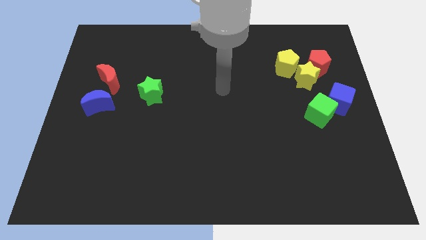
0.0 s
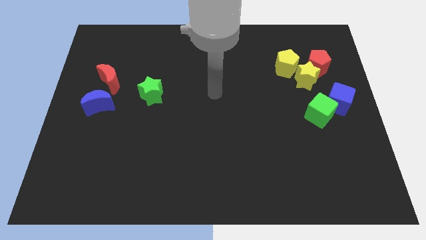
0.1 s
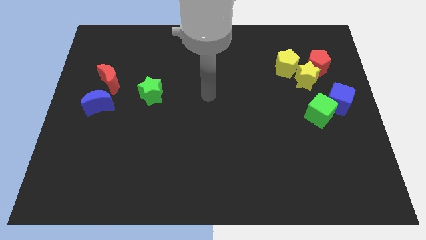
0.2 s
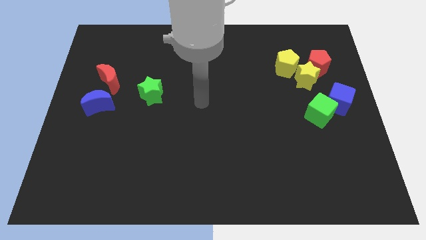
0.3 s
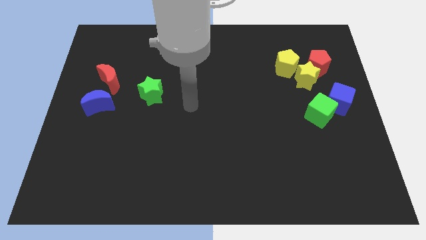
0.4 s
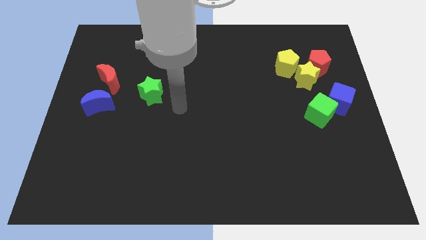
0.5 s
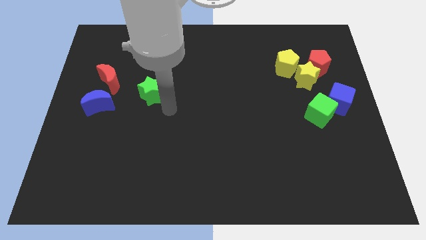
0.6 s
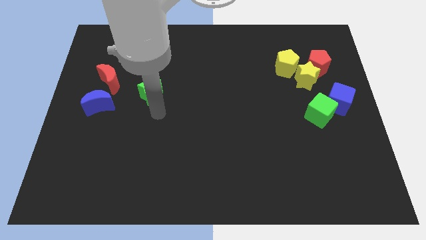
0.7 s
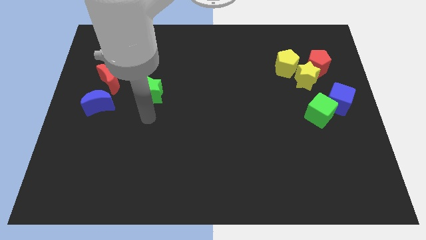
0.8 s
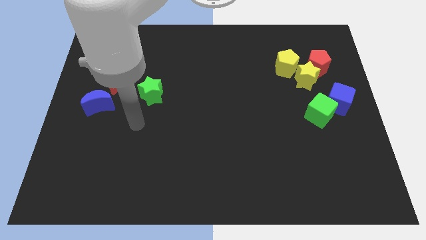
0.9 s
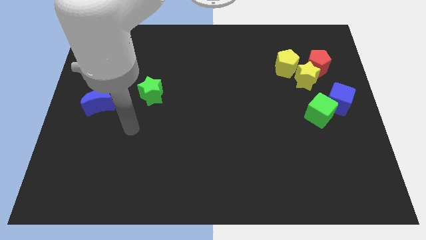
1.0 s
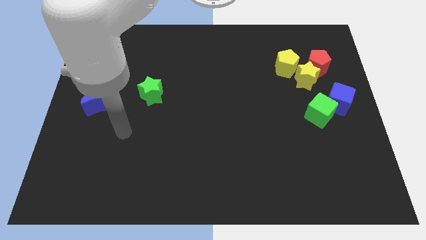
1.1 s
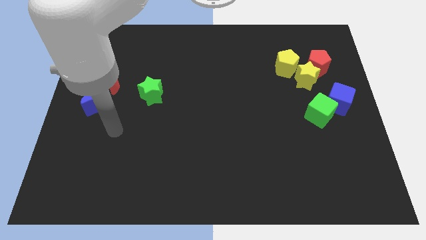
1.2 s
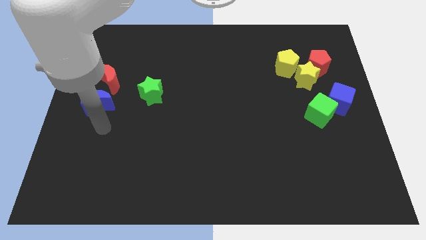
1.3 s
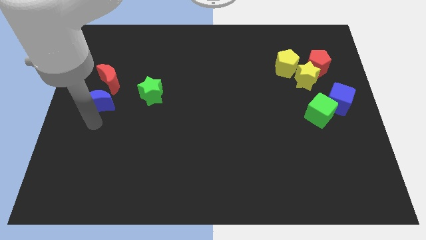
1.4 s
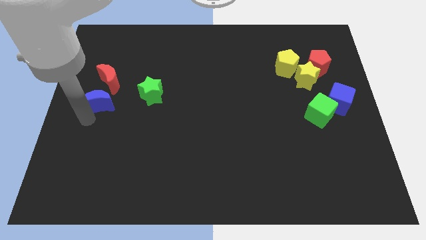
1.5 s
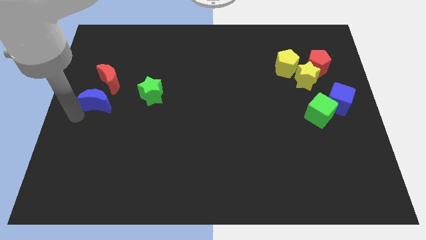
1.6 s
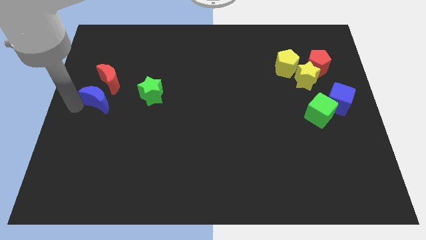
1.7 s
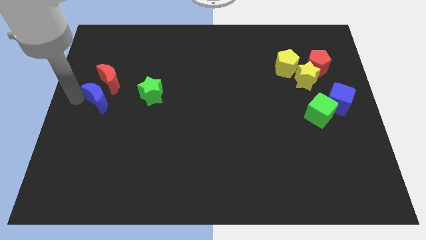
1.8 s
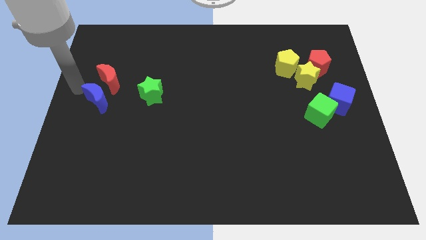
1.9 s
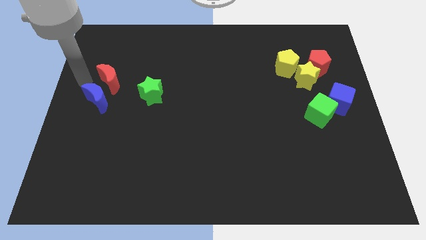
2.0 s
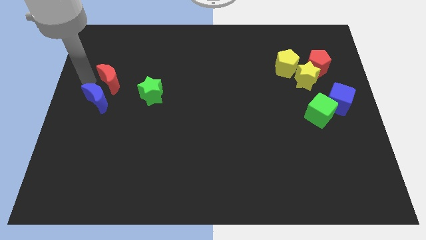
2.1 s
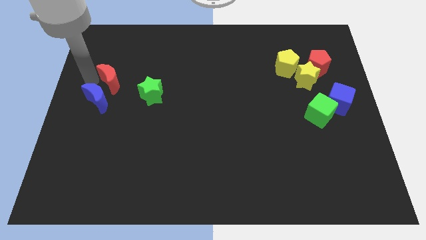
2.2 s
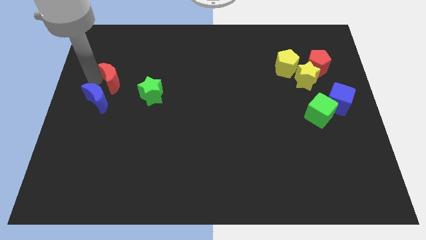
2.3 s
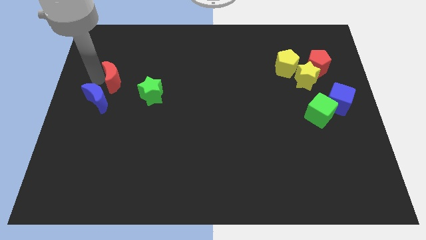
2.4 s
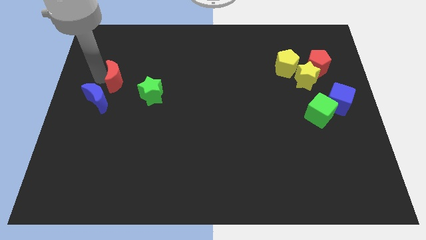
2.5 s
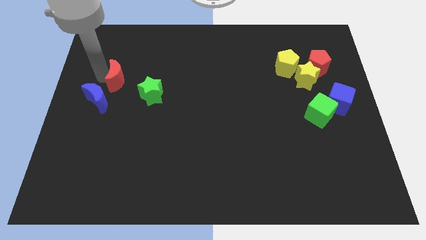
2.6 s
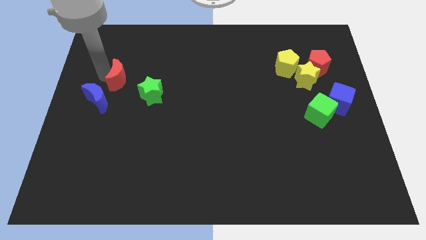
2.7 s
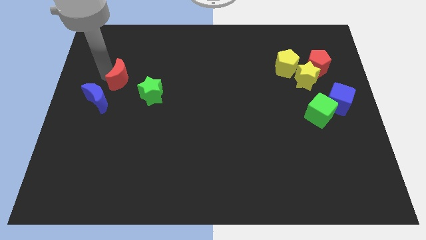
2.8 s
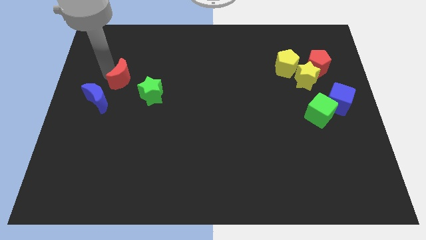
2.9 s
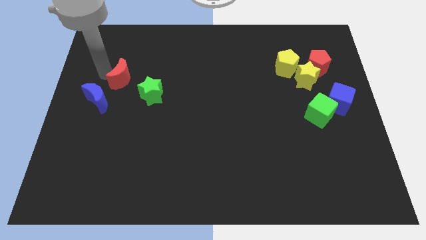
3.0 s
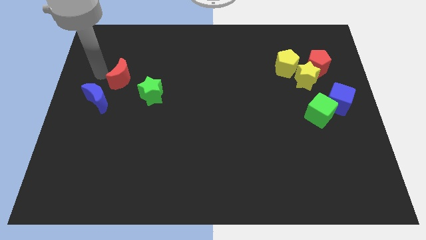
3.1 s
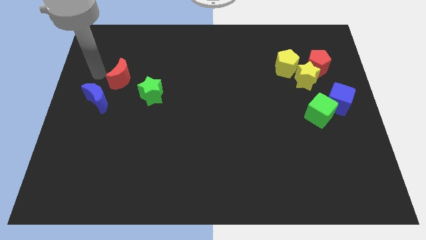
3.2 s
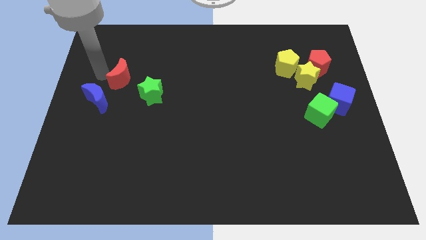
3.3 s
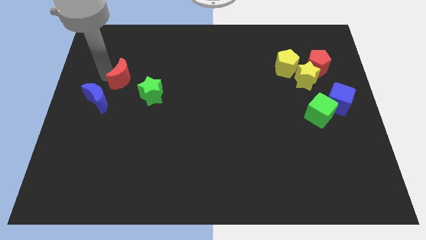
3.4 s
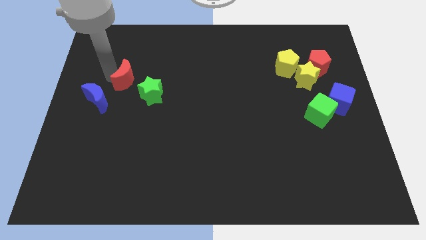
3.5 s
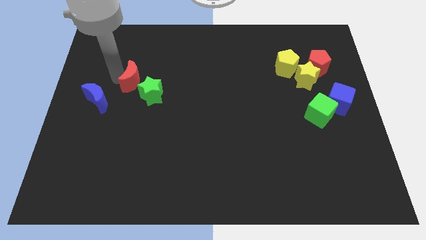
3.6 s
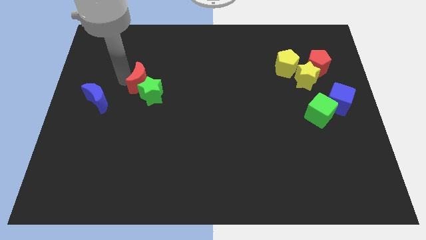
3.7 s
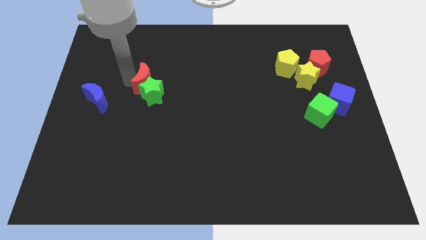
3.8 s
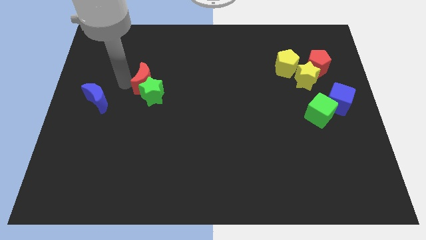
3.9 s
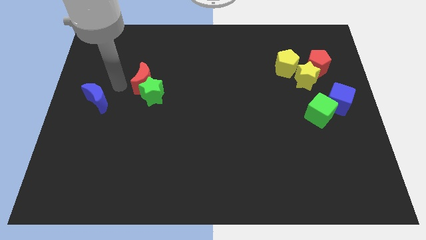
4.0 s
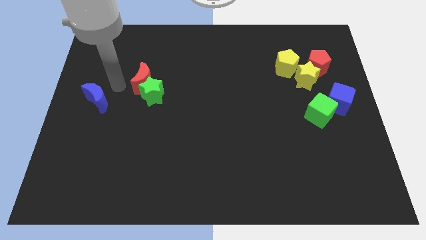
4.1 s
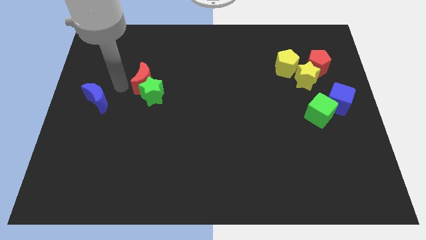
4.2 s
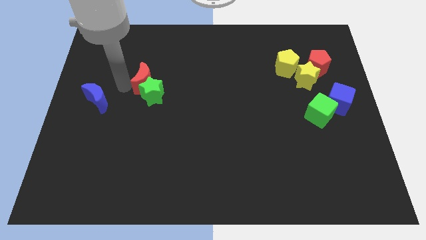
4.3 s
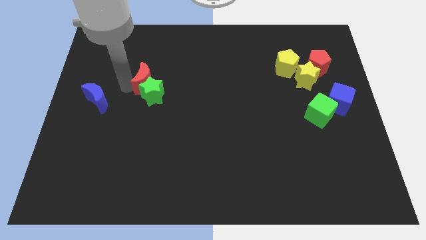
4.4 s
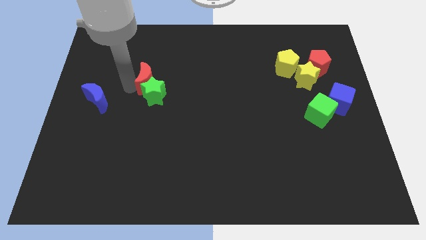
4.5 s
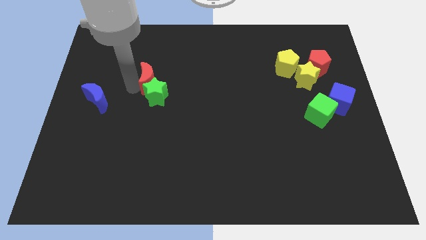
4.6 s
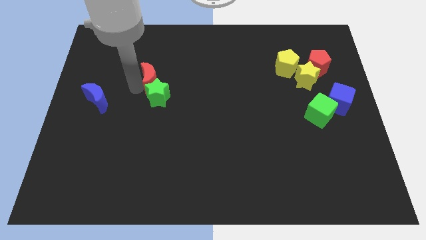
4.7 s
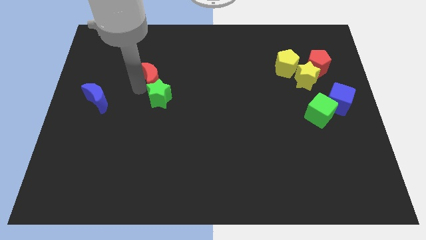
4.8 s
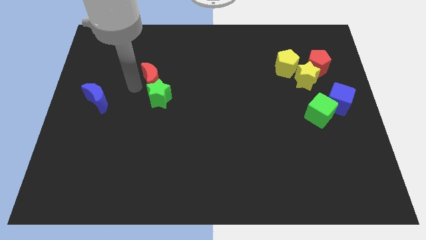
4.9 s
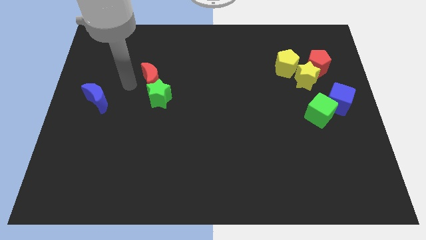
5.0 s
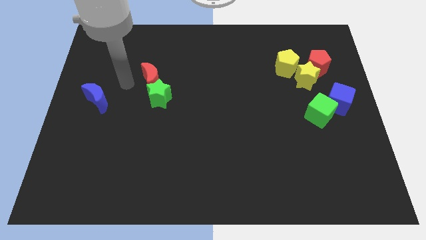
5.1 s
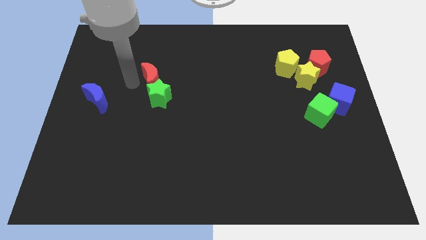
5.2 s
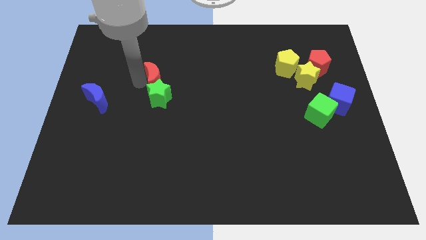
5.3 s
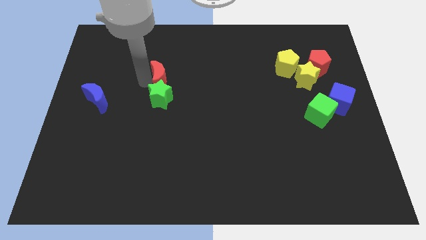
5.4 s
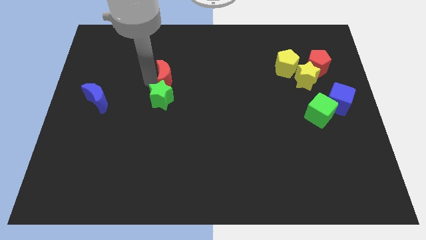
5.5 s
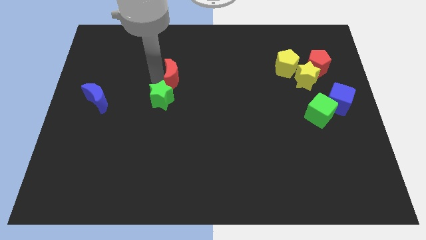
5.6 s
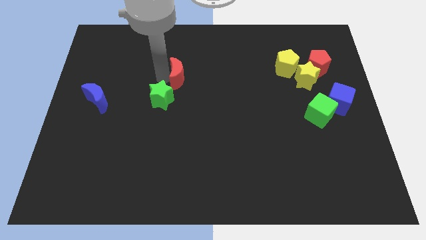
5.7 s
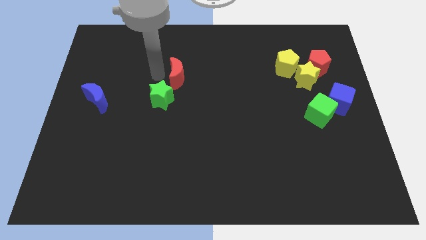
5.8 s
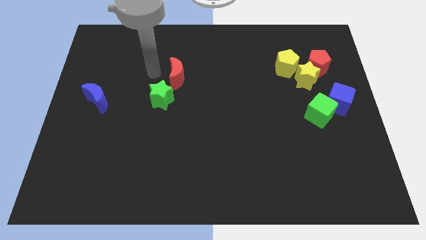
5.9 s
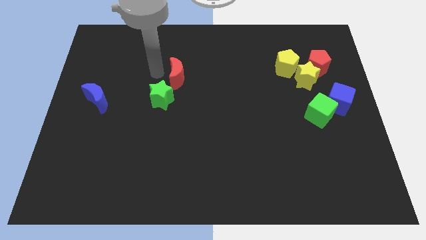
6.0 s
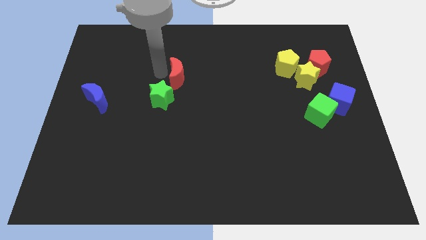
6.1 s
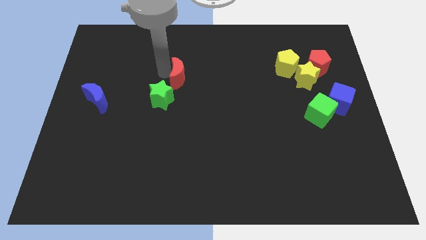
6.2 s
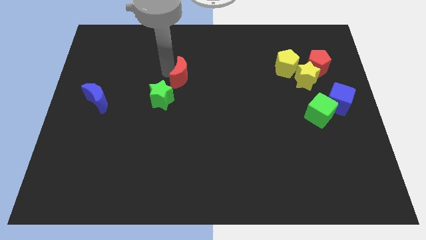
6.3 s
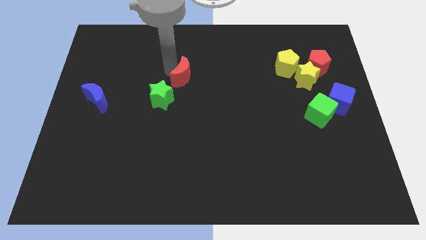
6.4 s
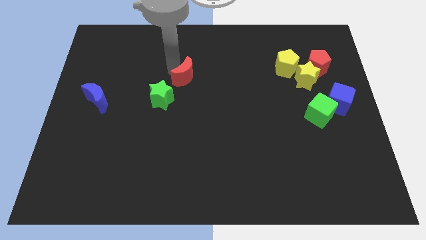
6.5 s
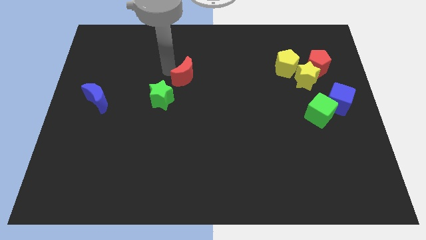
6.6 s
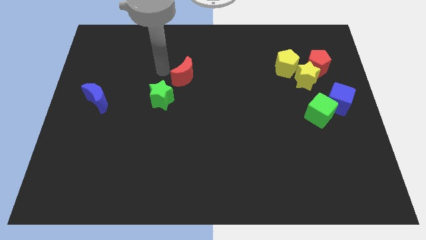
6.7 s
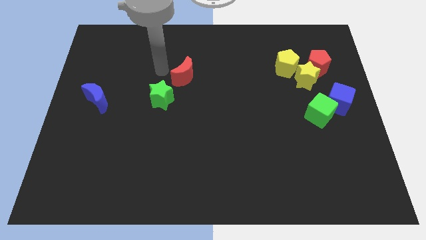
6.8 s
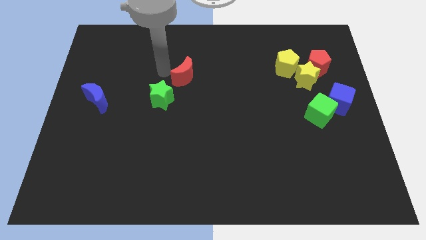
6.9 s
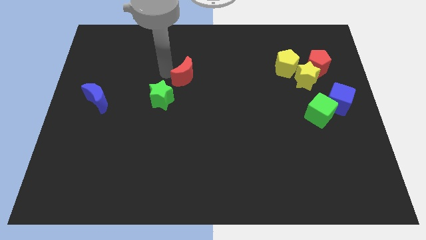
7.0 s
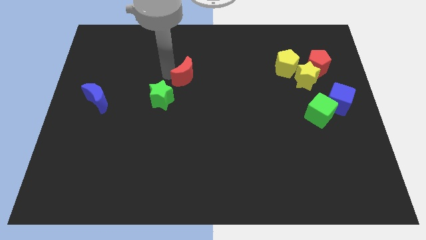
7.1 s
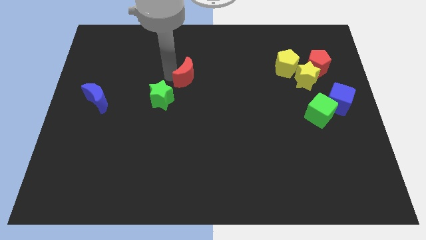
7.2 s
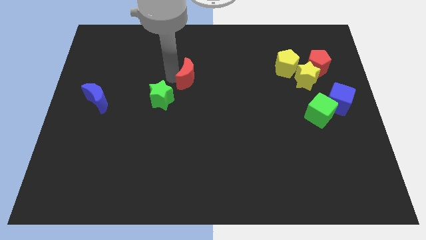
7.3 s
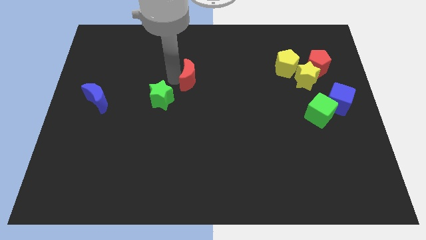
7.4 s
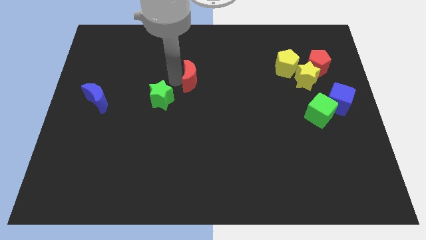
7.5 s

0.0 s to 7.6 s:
slide the red moon right

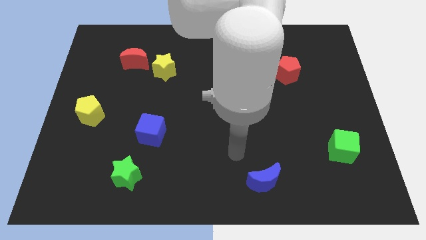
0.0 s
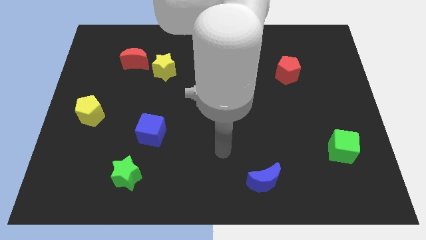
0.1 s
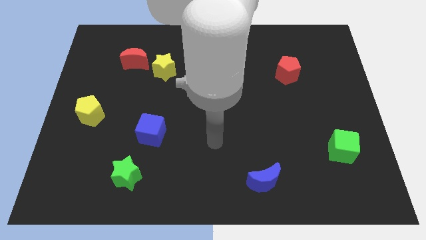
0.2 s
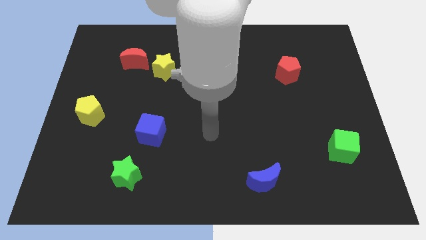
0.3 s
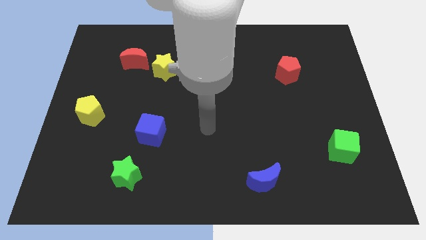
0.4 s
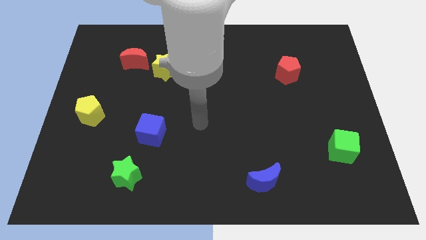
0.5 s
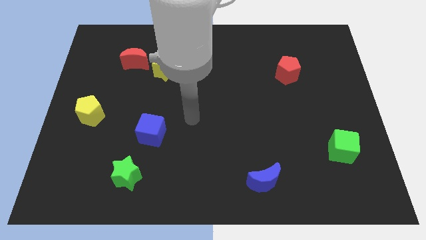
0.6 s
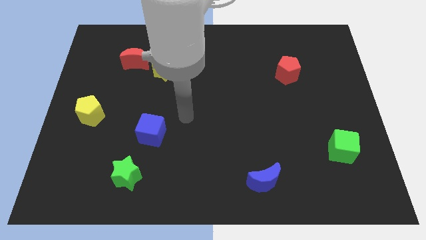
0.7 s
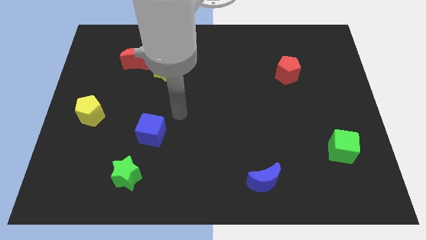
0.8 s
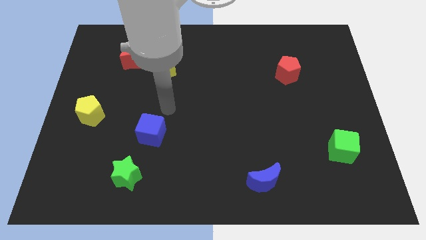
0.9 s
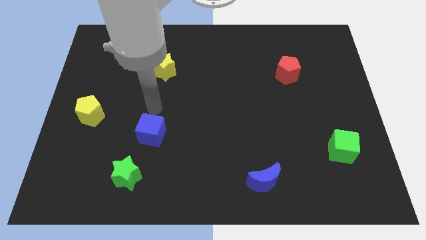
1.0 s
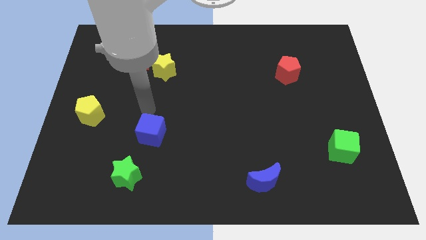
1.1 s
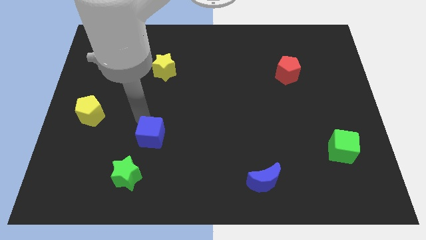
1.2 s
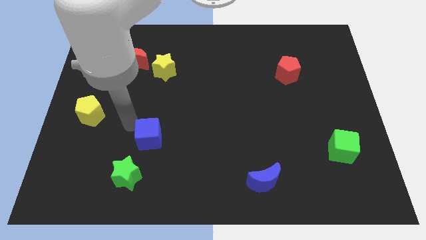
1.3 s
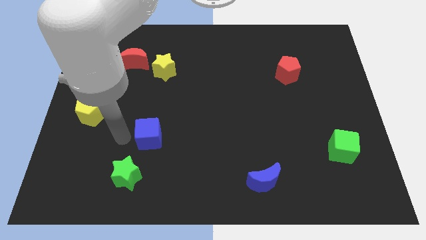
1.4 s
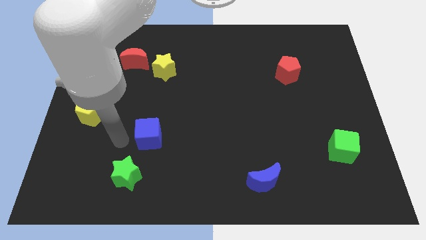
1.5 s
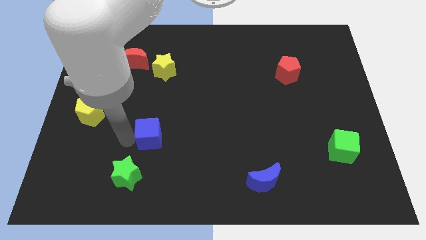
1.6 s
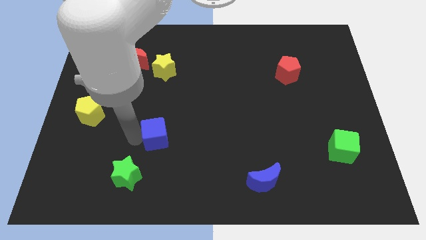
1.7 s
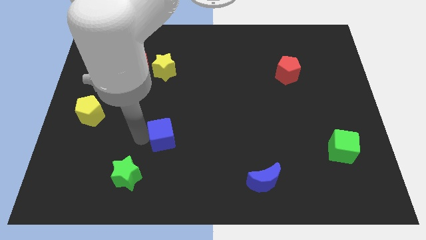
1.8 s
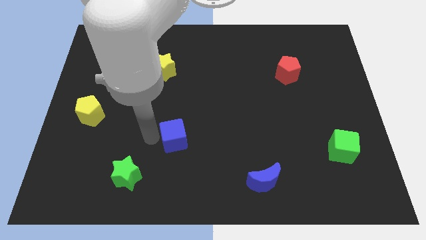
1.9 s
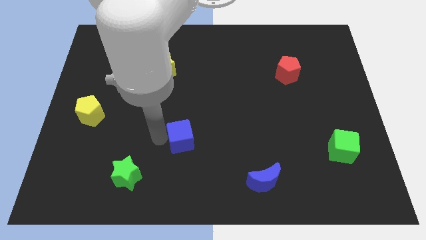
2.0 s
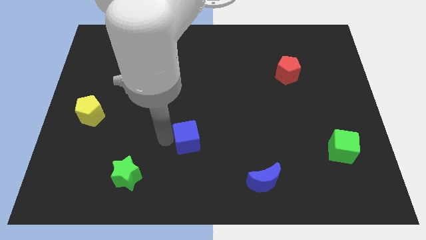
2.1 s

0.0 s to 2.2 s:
slightly push the blue cube to the right
